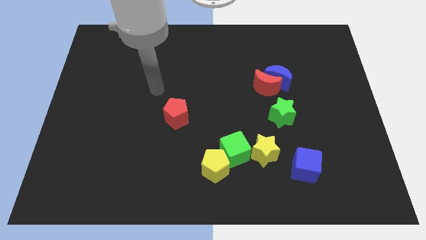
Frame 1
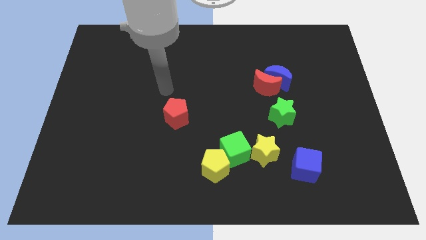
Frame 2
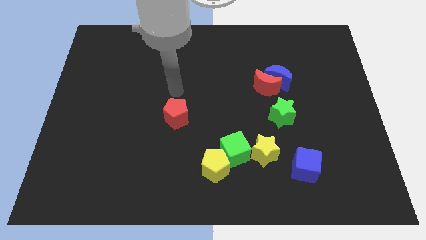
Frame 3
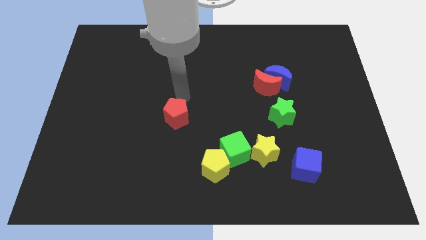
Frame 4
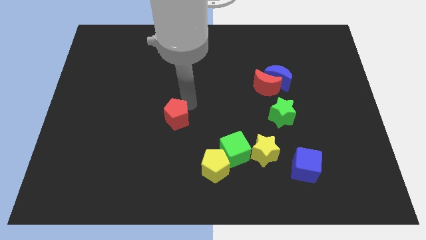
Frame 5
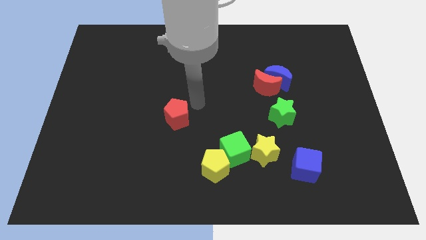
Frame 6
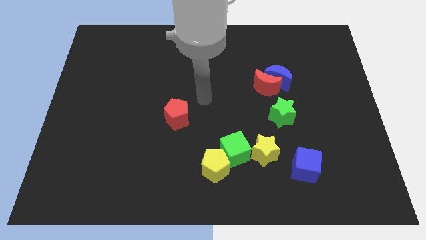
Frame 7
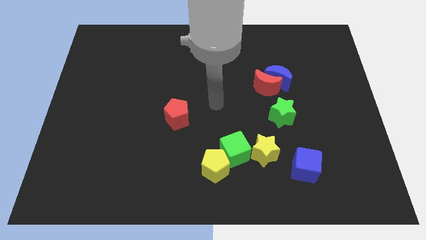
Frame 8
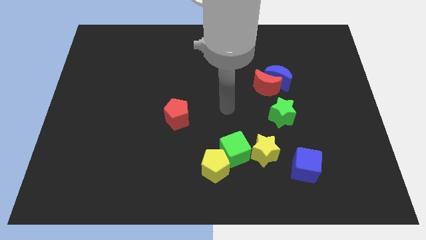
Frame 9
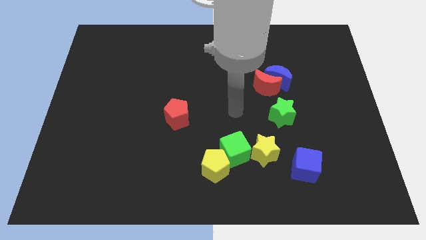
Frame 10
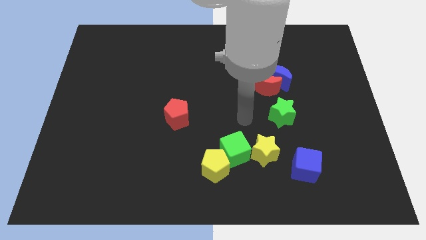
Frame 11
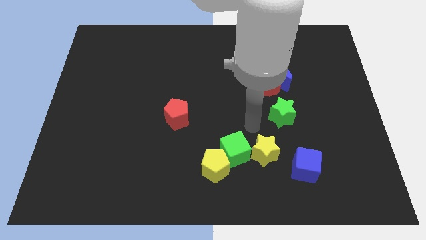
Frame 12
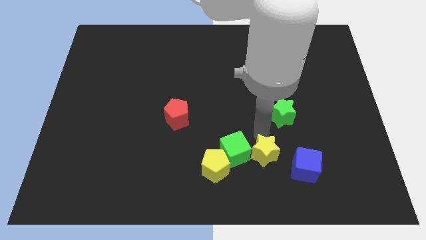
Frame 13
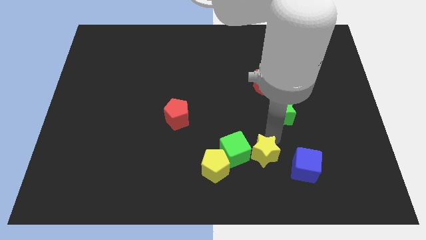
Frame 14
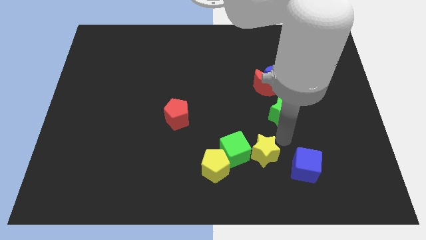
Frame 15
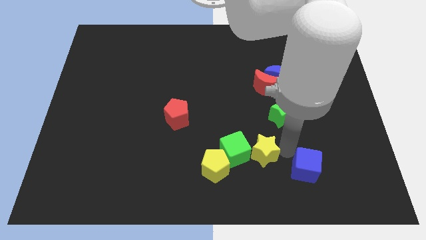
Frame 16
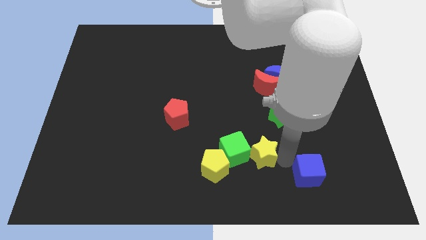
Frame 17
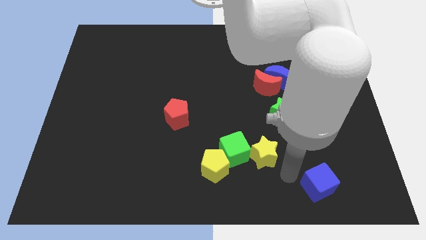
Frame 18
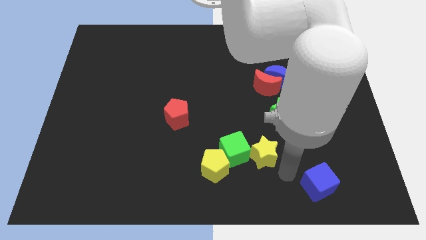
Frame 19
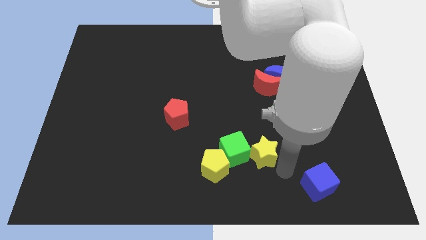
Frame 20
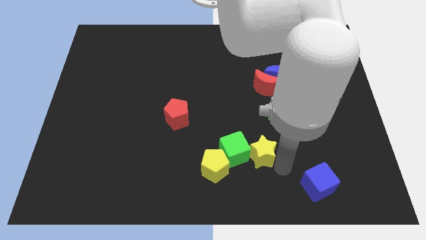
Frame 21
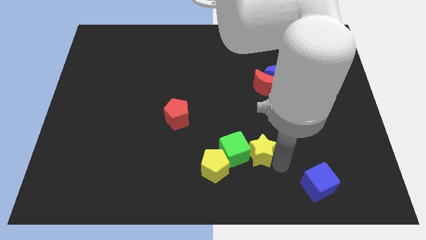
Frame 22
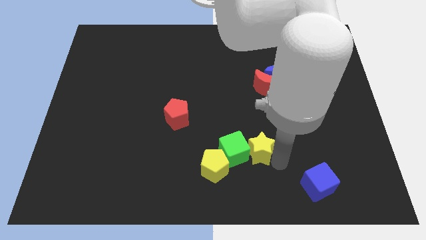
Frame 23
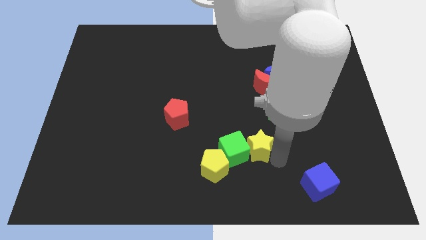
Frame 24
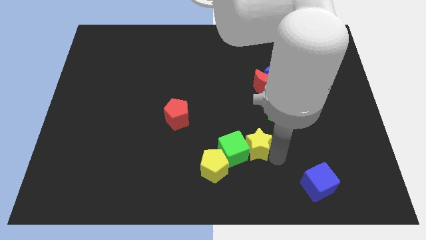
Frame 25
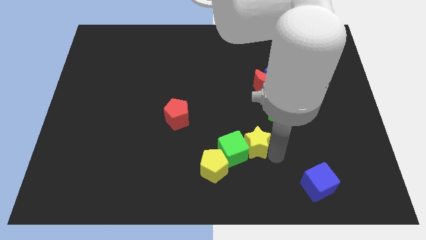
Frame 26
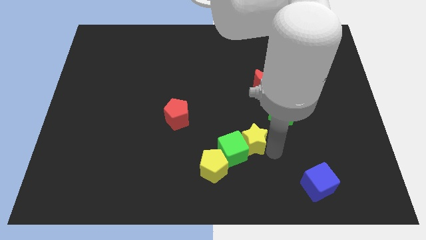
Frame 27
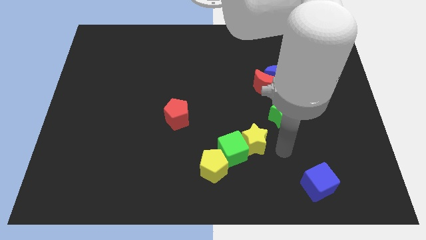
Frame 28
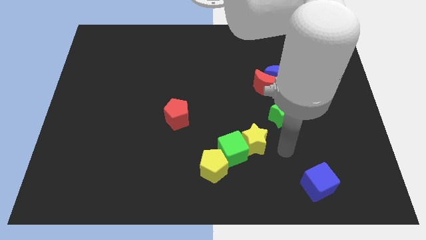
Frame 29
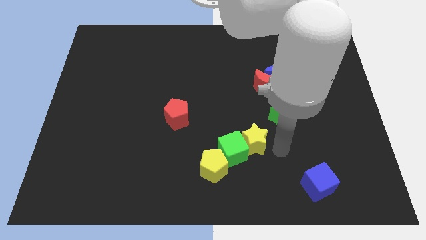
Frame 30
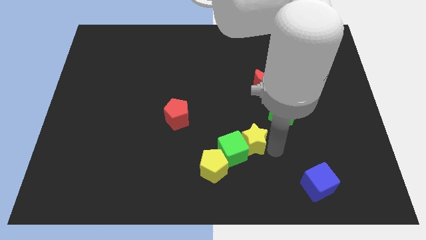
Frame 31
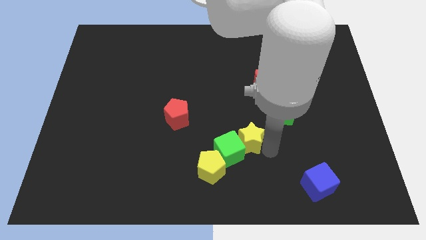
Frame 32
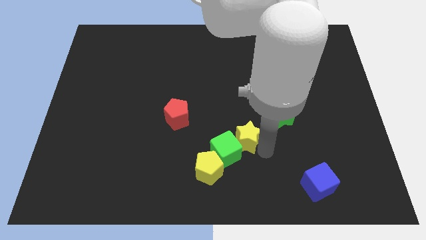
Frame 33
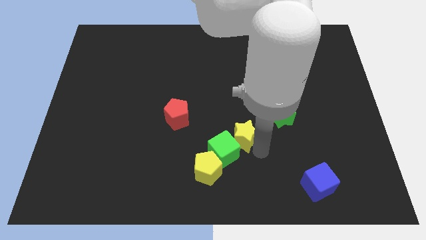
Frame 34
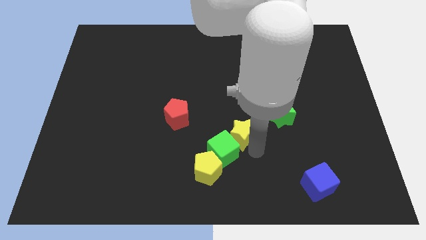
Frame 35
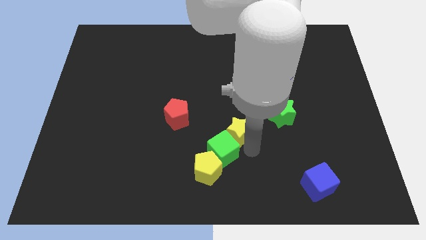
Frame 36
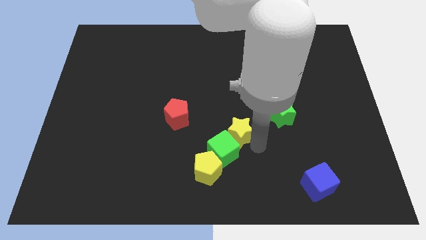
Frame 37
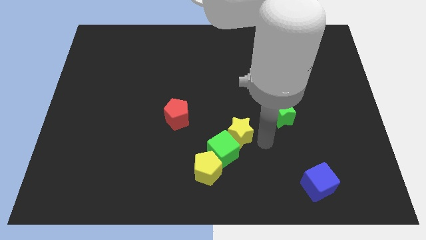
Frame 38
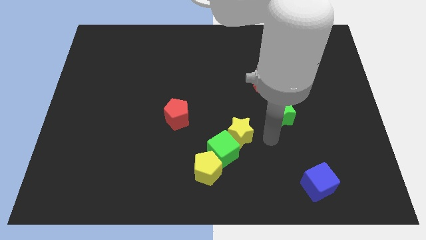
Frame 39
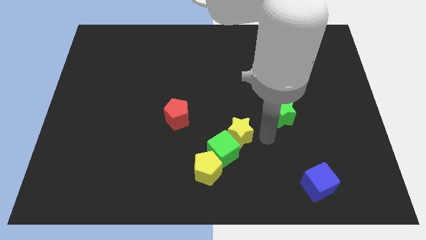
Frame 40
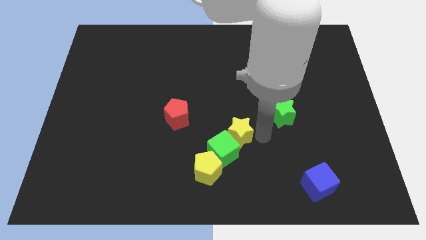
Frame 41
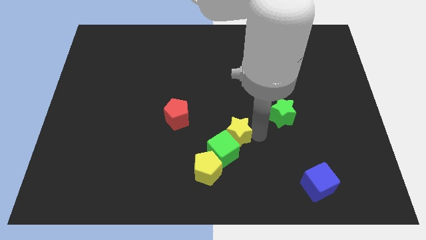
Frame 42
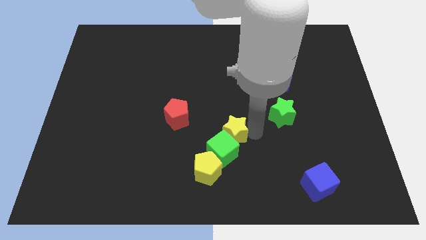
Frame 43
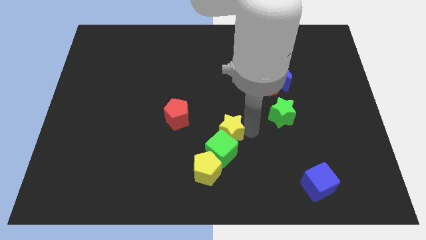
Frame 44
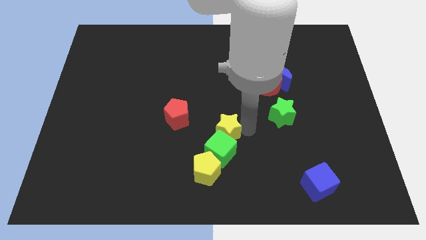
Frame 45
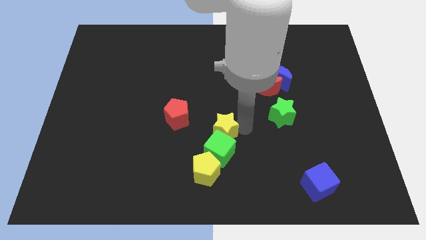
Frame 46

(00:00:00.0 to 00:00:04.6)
move the yellow star to the top left side of the green cube

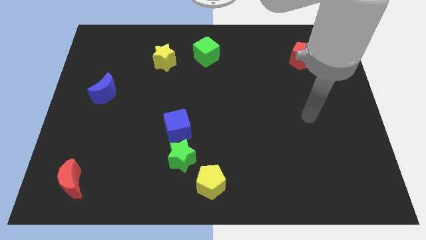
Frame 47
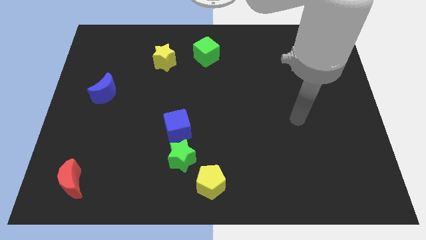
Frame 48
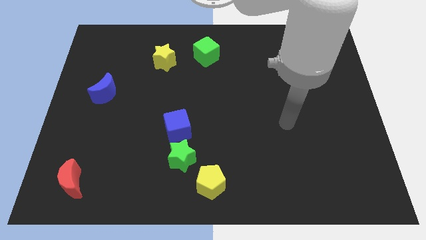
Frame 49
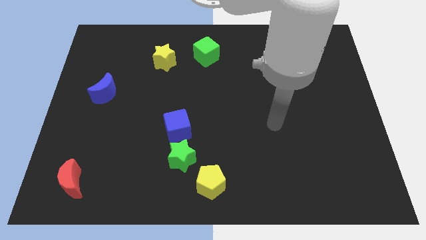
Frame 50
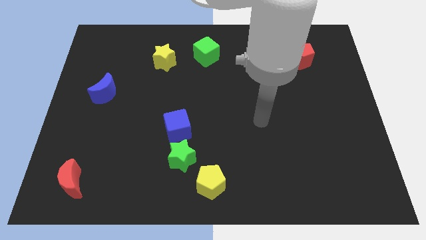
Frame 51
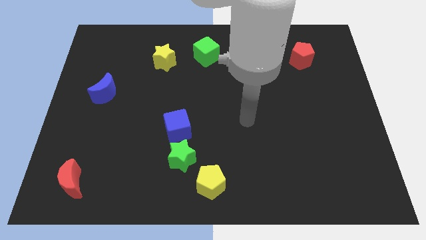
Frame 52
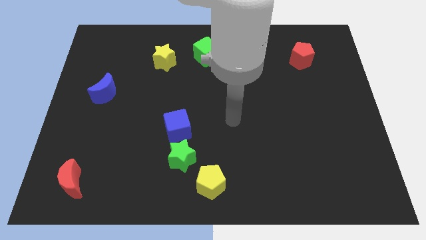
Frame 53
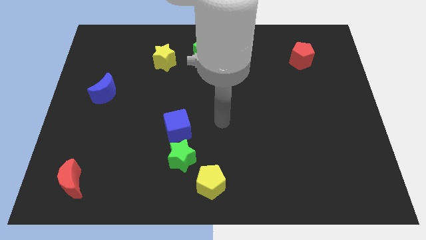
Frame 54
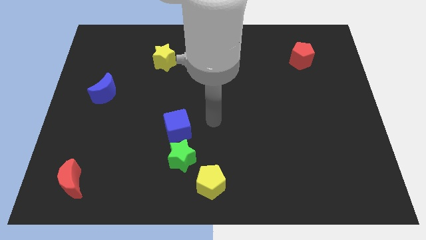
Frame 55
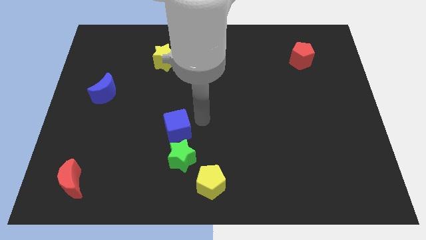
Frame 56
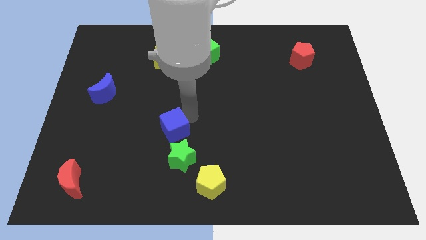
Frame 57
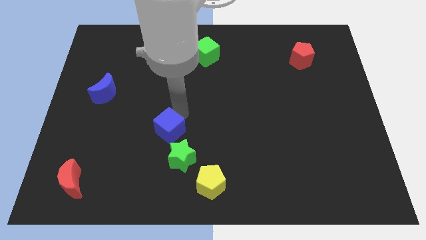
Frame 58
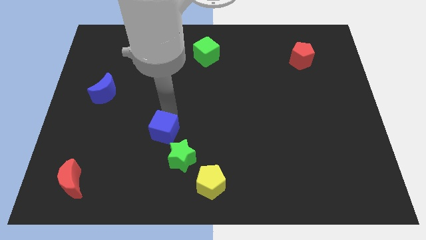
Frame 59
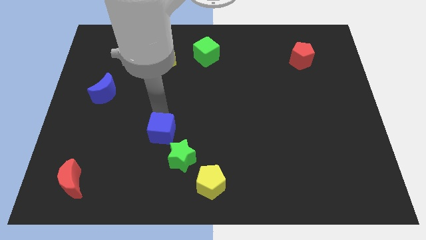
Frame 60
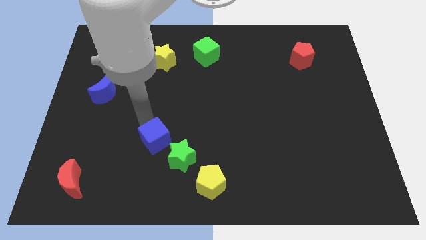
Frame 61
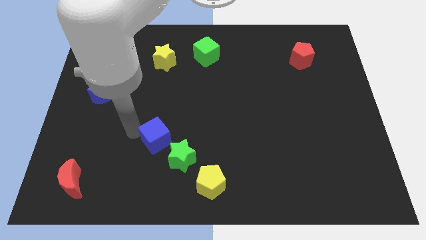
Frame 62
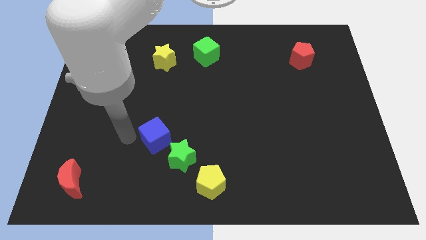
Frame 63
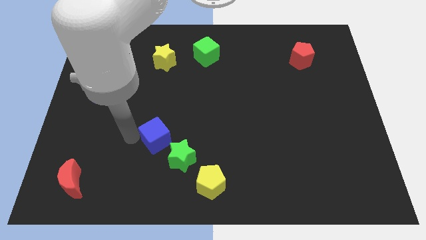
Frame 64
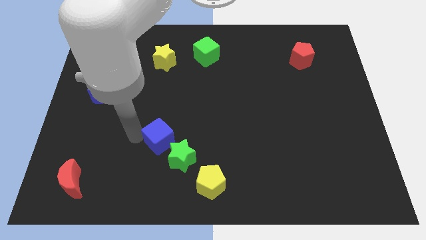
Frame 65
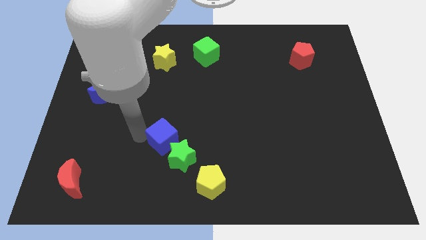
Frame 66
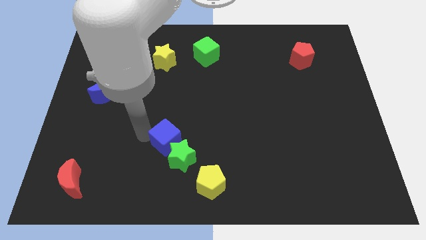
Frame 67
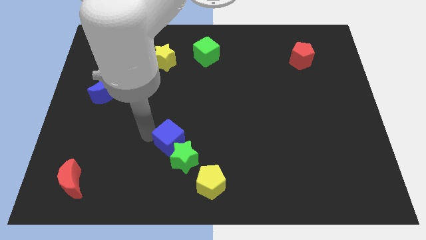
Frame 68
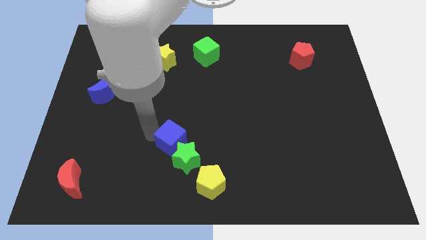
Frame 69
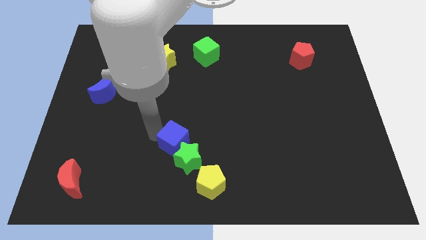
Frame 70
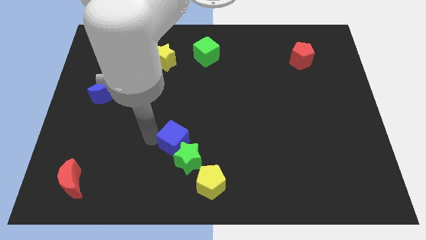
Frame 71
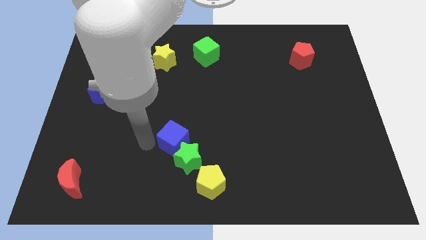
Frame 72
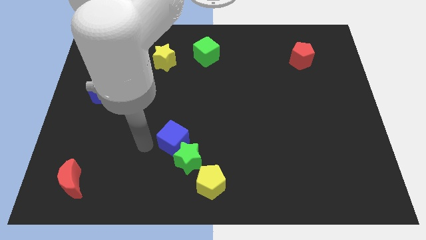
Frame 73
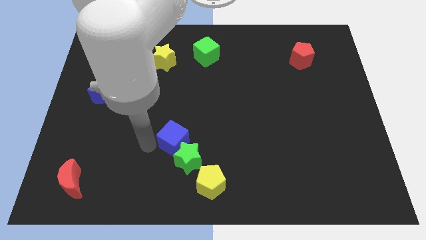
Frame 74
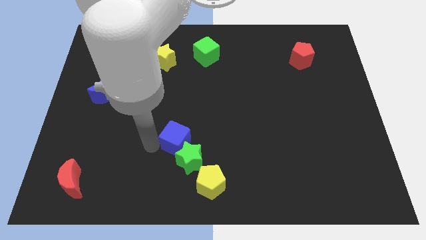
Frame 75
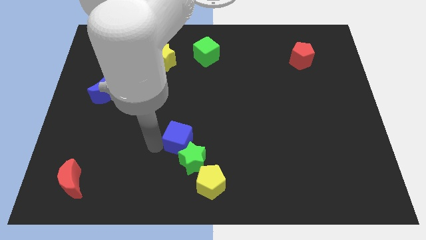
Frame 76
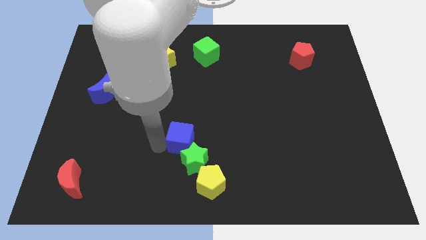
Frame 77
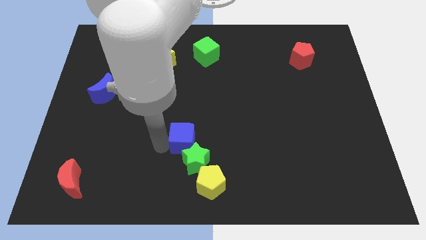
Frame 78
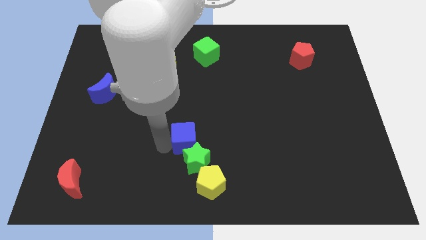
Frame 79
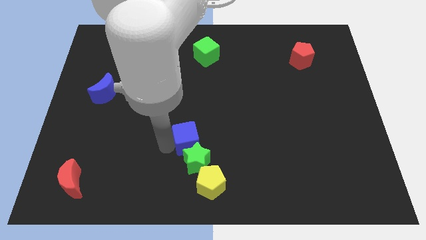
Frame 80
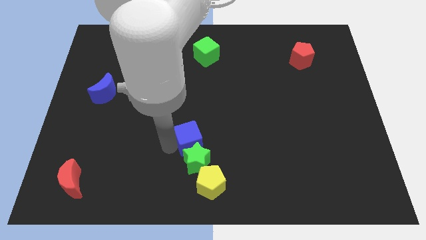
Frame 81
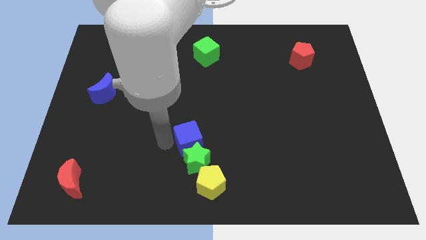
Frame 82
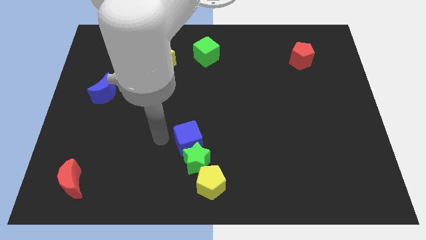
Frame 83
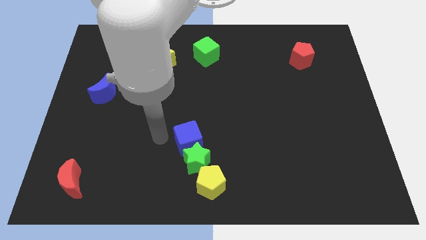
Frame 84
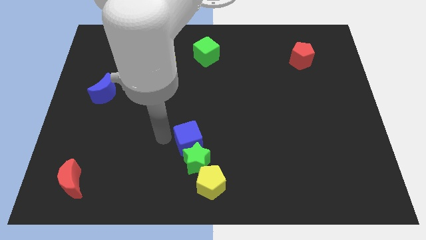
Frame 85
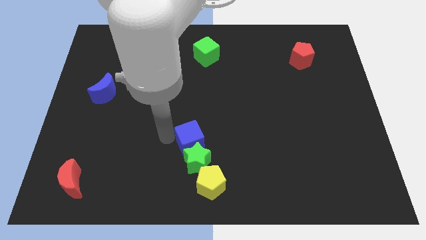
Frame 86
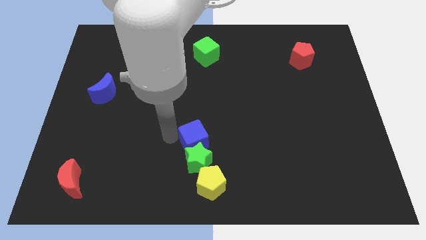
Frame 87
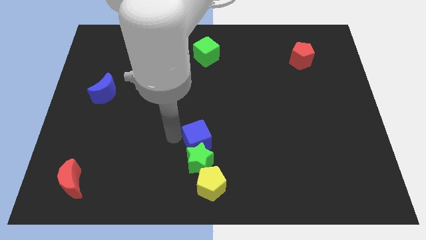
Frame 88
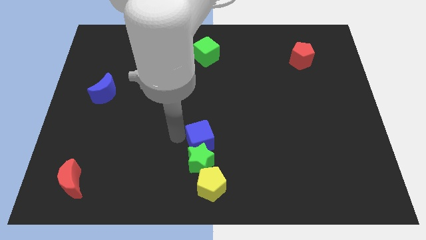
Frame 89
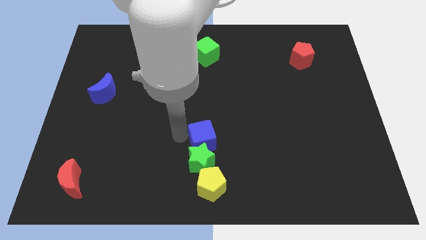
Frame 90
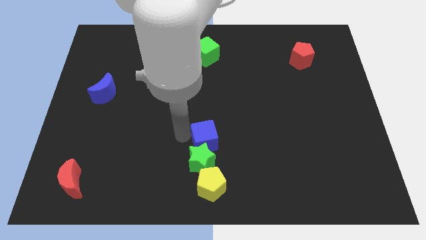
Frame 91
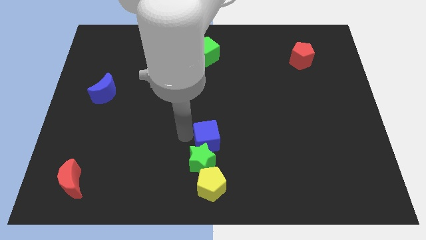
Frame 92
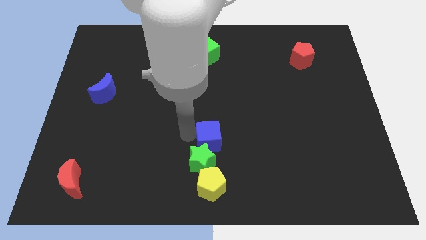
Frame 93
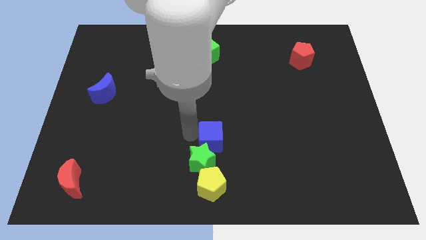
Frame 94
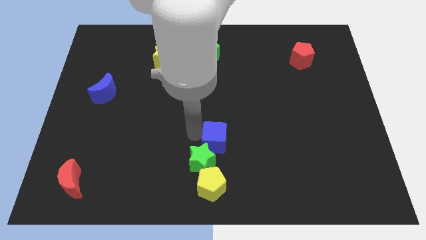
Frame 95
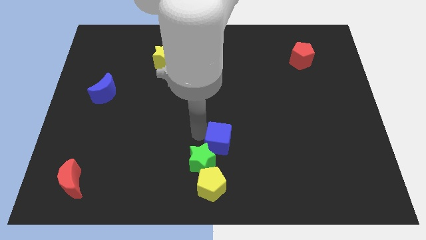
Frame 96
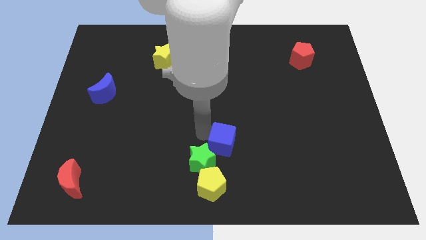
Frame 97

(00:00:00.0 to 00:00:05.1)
slide the blue cube to the right side of the green star
